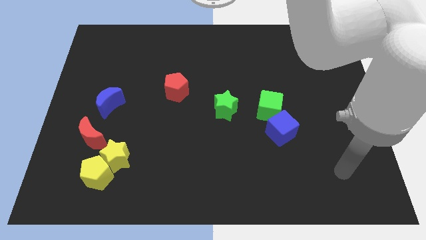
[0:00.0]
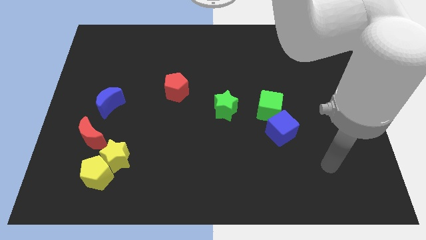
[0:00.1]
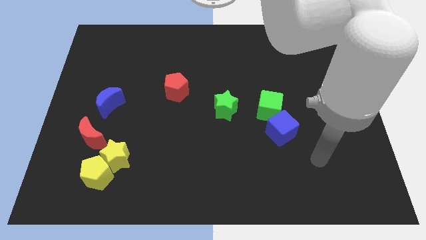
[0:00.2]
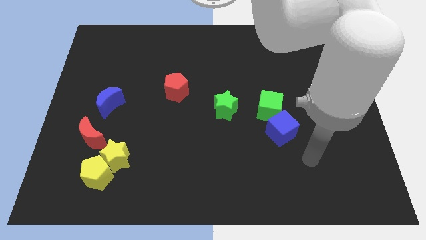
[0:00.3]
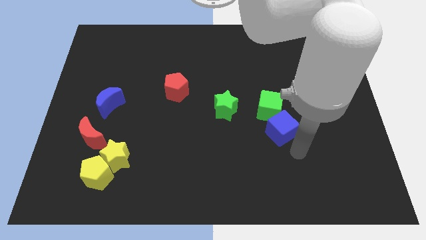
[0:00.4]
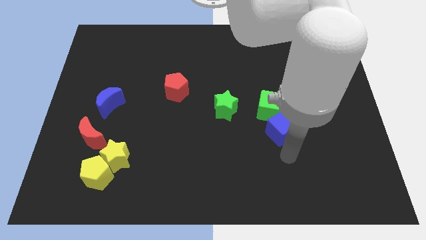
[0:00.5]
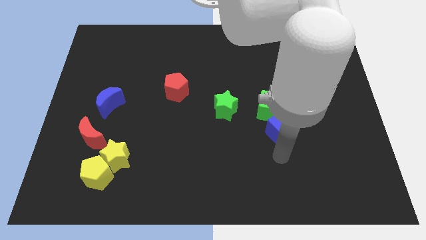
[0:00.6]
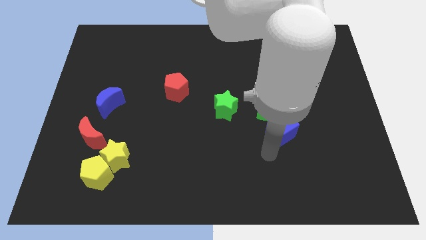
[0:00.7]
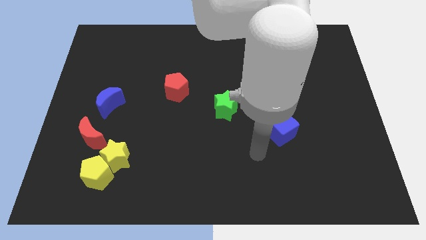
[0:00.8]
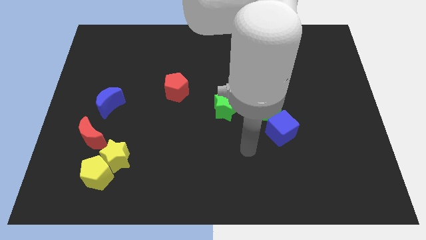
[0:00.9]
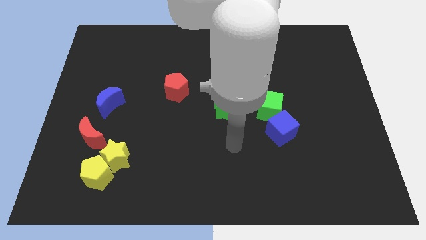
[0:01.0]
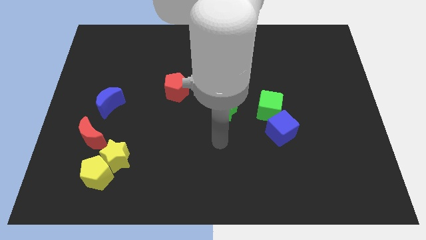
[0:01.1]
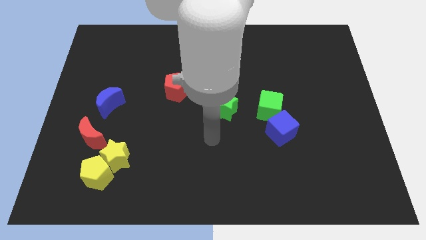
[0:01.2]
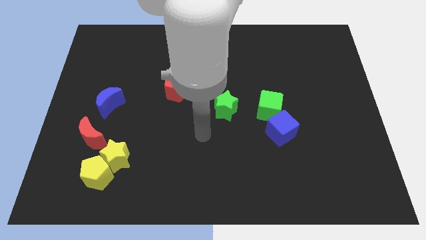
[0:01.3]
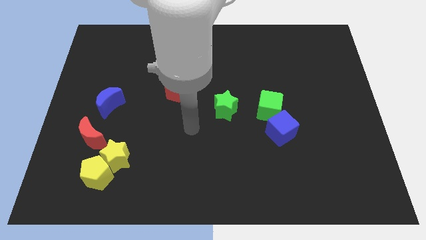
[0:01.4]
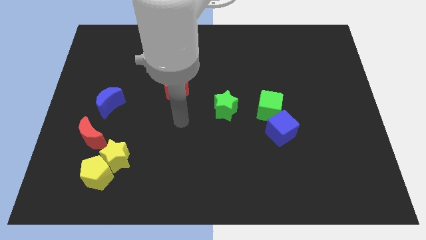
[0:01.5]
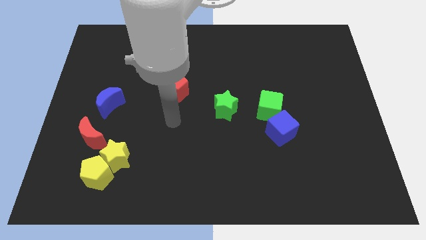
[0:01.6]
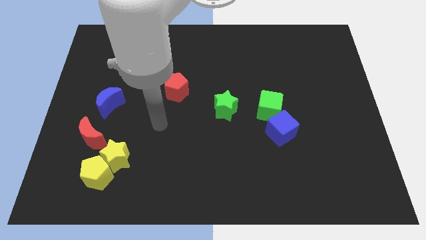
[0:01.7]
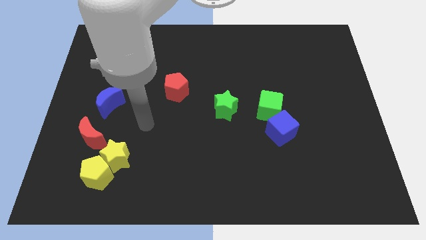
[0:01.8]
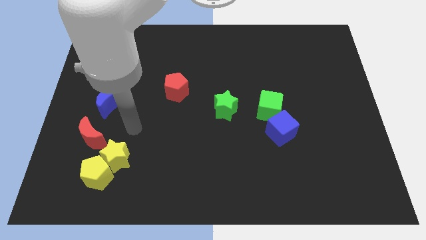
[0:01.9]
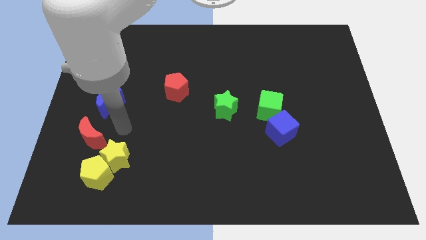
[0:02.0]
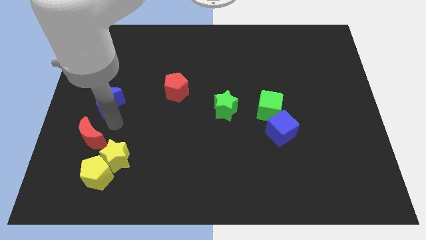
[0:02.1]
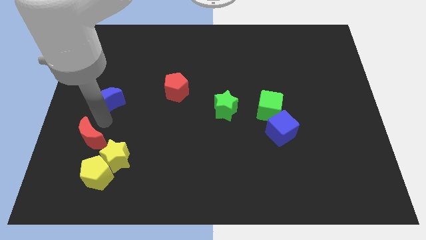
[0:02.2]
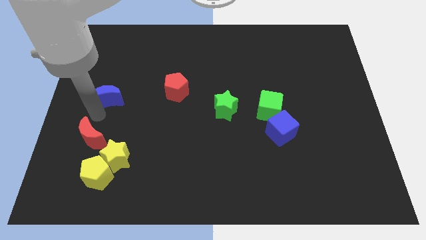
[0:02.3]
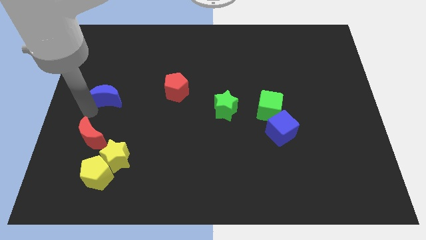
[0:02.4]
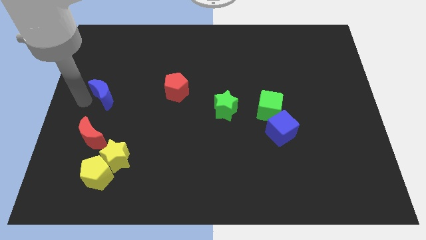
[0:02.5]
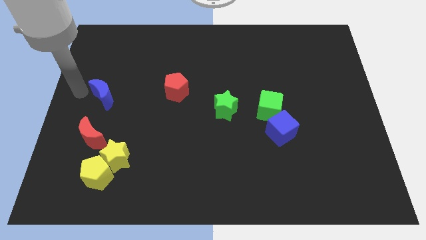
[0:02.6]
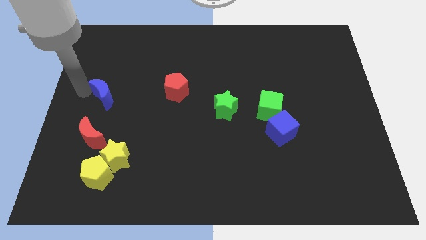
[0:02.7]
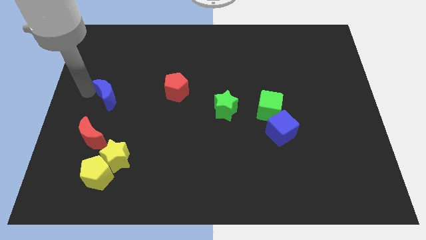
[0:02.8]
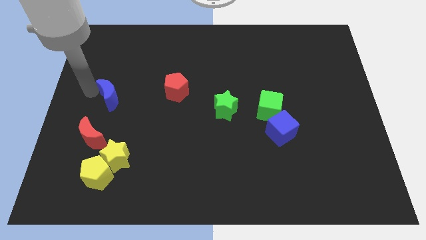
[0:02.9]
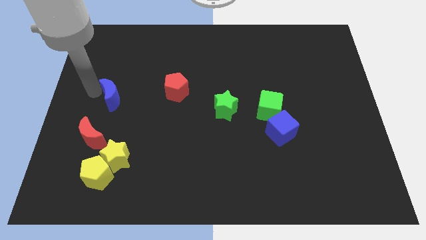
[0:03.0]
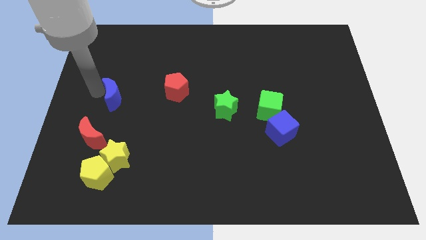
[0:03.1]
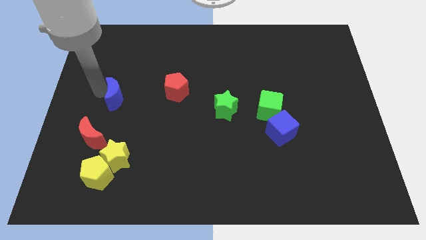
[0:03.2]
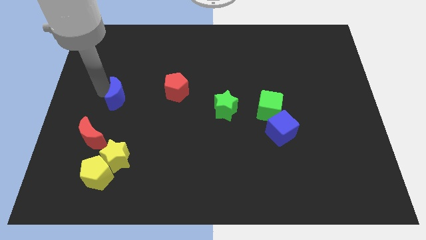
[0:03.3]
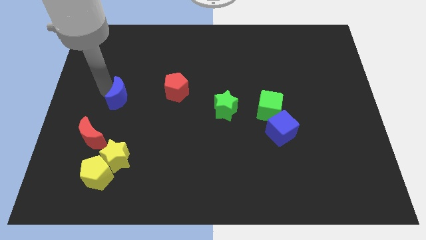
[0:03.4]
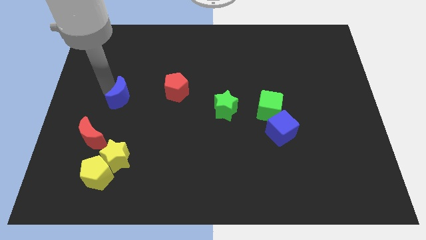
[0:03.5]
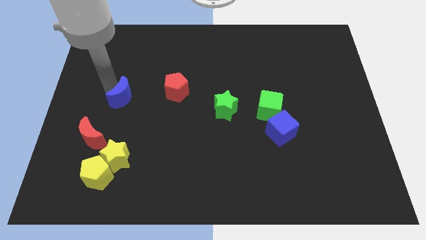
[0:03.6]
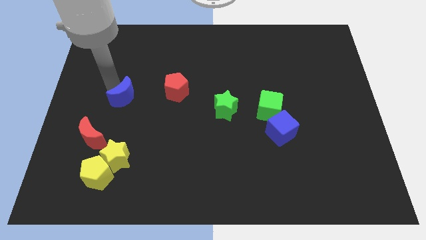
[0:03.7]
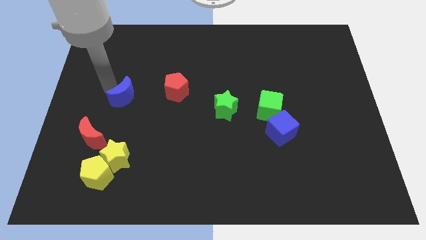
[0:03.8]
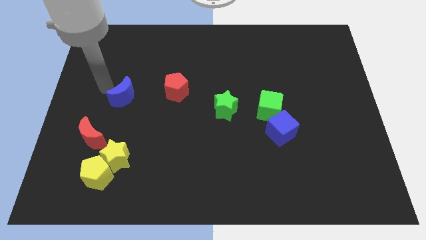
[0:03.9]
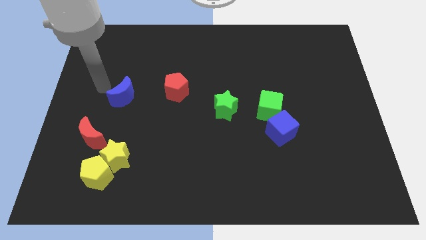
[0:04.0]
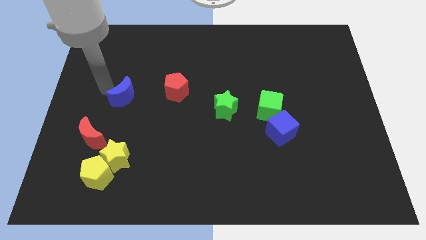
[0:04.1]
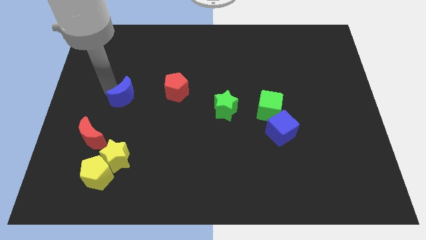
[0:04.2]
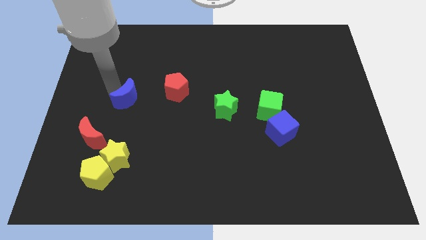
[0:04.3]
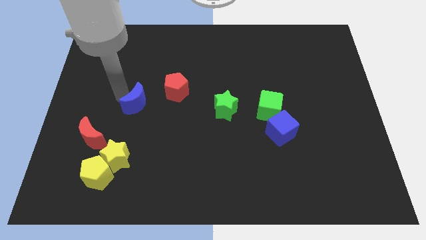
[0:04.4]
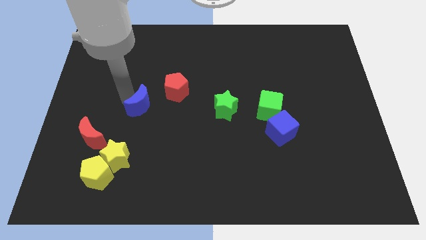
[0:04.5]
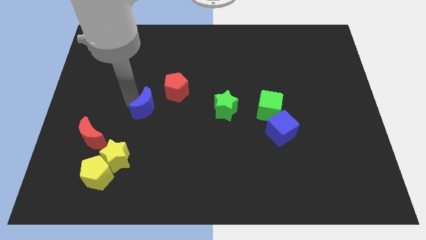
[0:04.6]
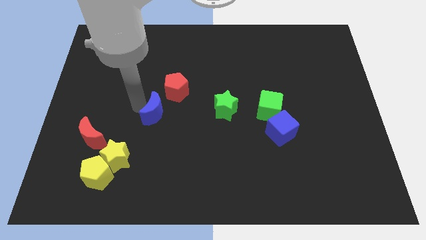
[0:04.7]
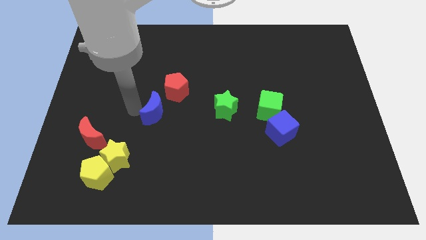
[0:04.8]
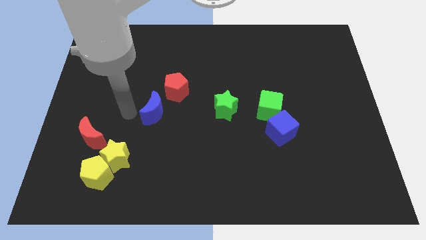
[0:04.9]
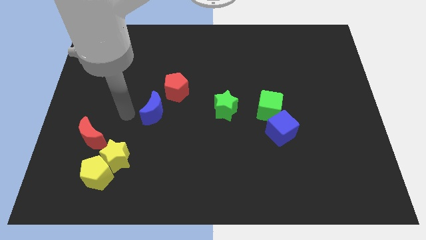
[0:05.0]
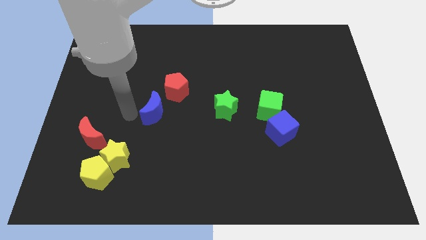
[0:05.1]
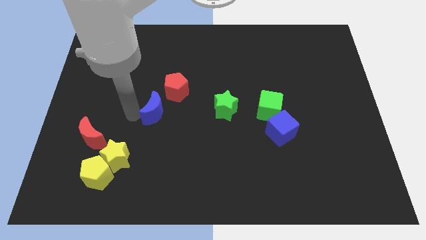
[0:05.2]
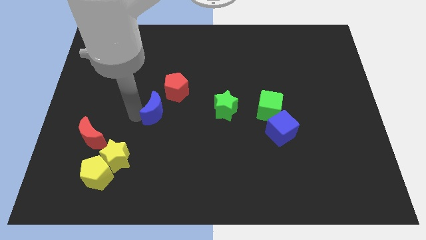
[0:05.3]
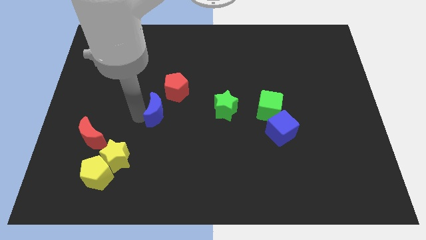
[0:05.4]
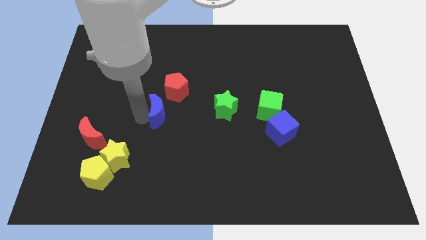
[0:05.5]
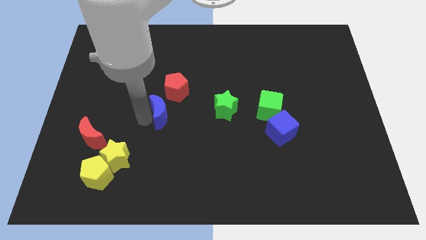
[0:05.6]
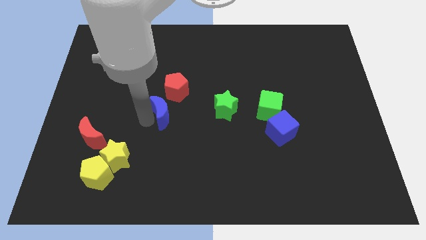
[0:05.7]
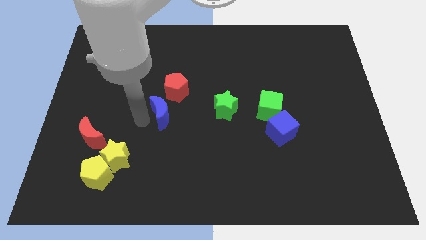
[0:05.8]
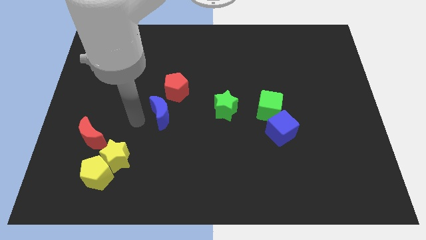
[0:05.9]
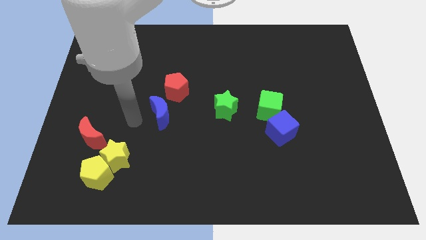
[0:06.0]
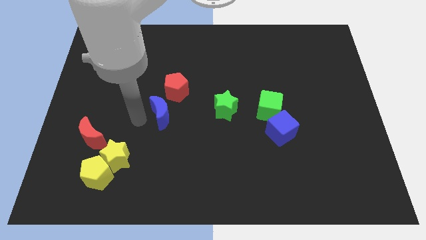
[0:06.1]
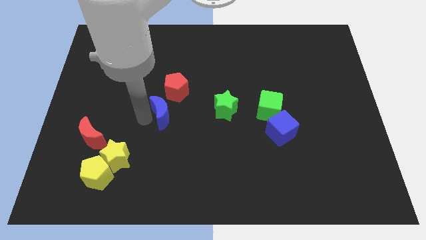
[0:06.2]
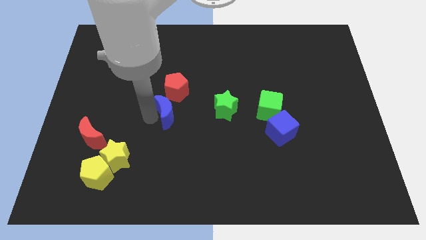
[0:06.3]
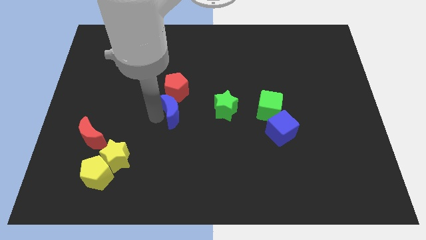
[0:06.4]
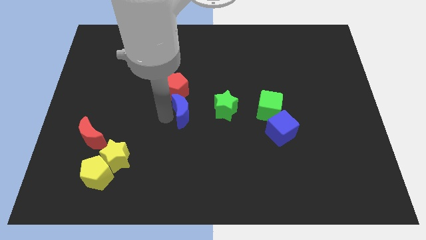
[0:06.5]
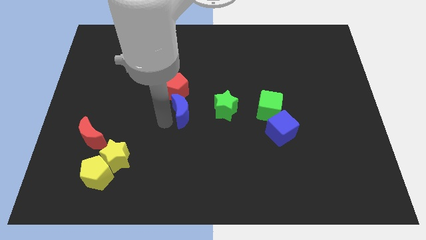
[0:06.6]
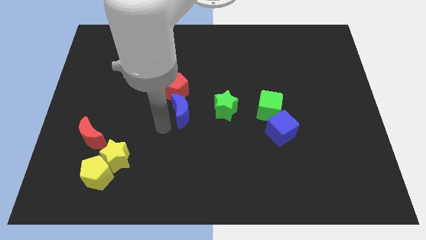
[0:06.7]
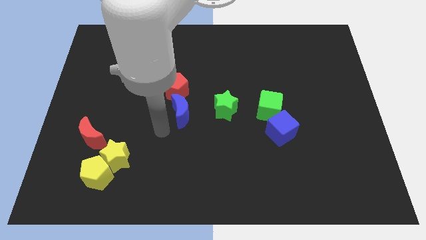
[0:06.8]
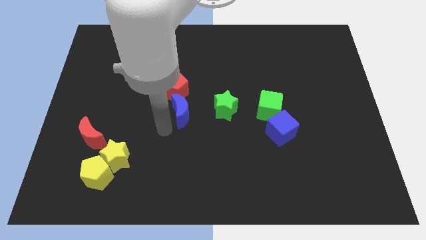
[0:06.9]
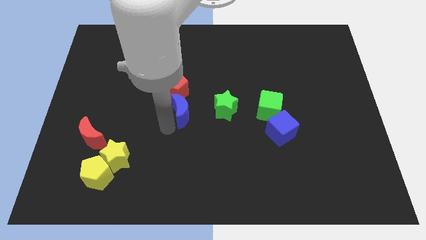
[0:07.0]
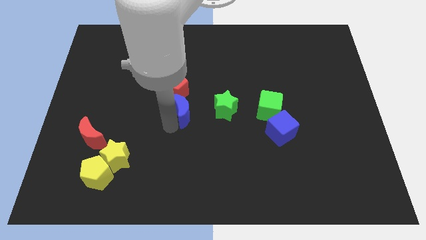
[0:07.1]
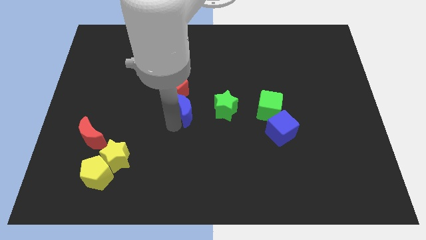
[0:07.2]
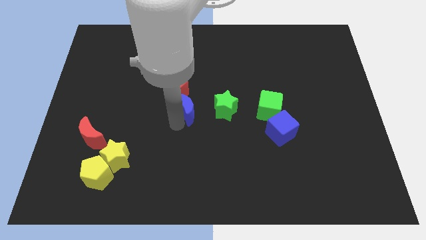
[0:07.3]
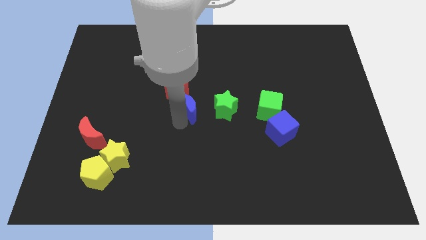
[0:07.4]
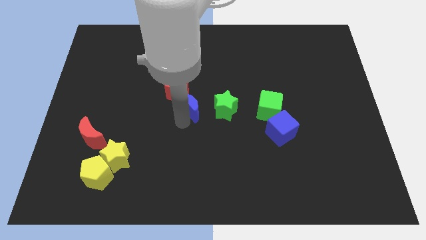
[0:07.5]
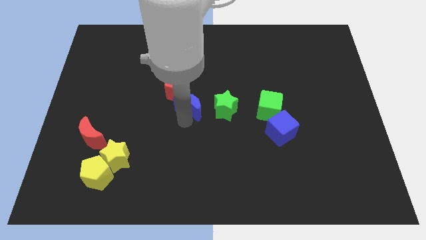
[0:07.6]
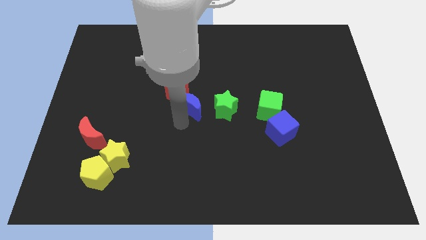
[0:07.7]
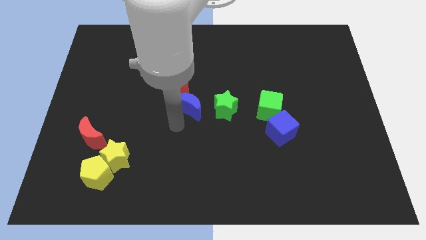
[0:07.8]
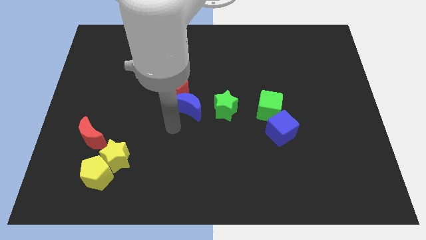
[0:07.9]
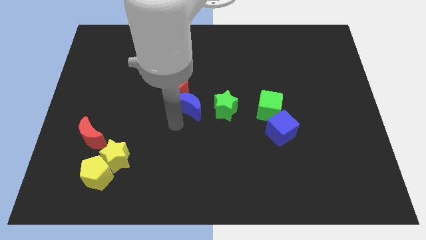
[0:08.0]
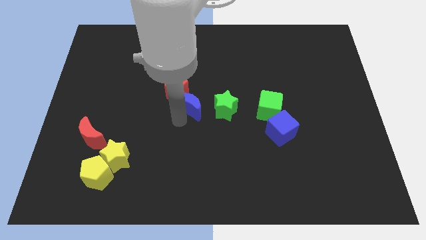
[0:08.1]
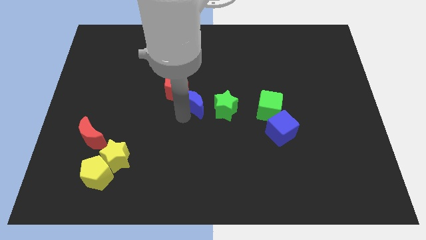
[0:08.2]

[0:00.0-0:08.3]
move the blue moon to the right
